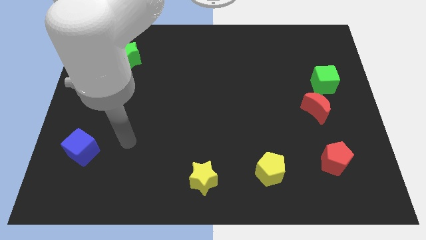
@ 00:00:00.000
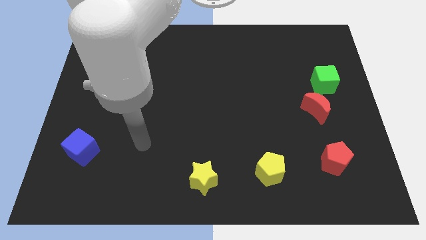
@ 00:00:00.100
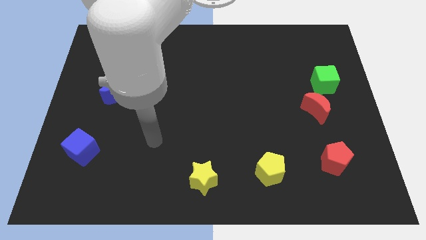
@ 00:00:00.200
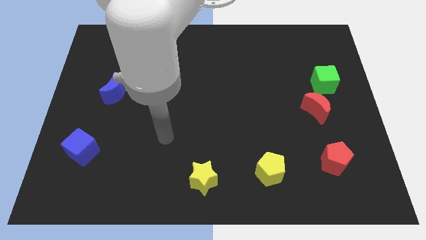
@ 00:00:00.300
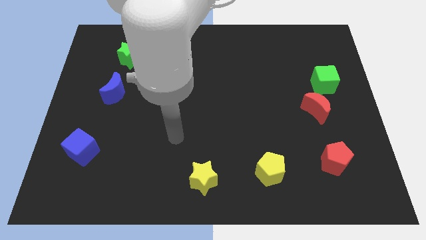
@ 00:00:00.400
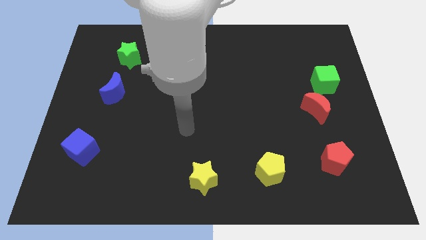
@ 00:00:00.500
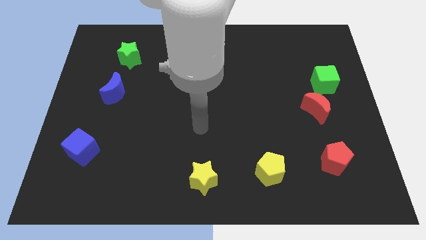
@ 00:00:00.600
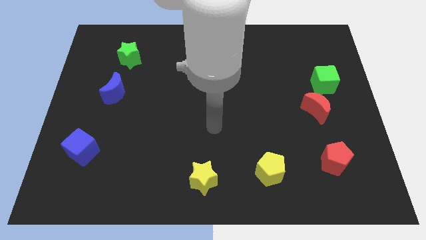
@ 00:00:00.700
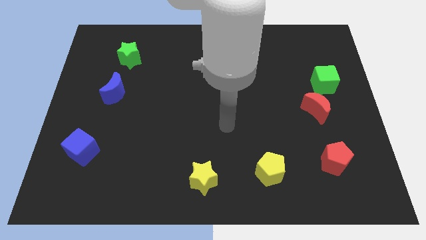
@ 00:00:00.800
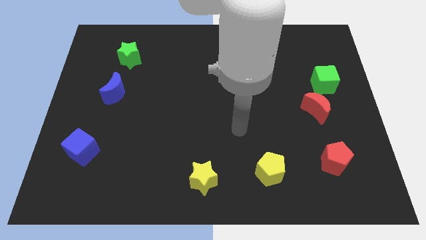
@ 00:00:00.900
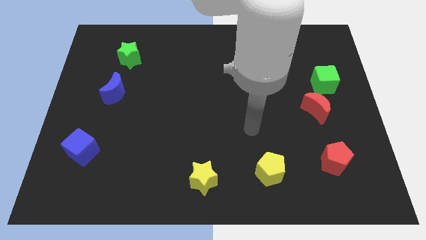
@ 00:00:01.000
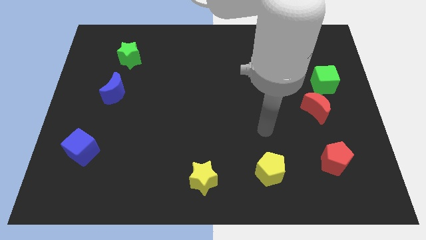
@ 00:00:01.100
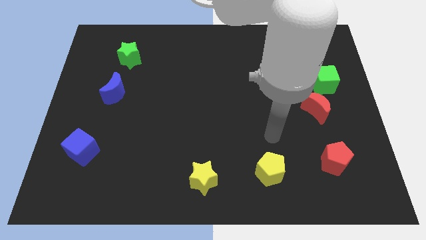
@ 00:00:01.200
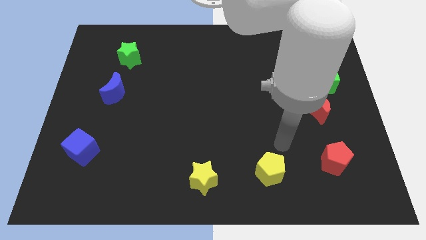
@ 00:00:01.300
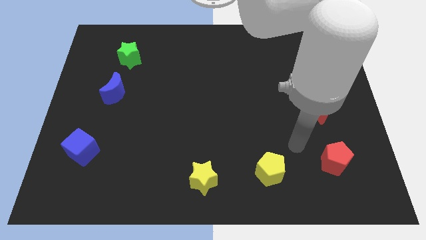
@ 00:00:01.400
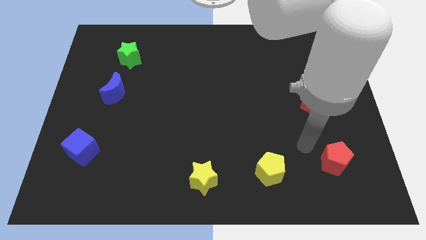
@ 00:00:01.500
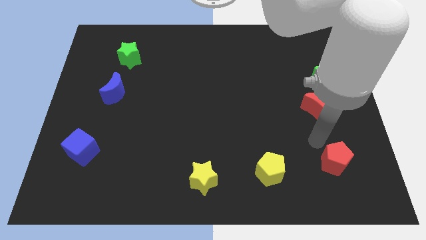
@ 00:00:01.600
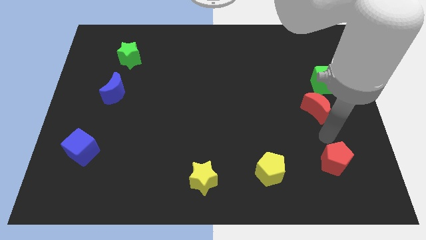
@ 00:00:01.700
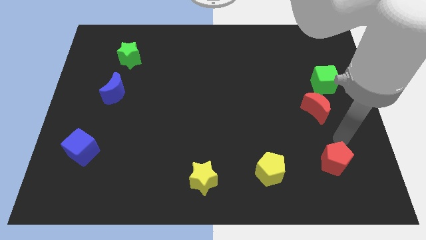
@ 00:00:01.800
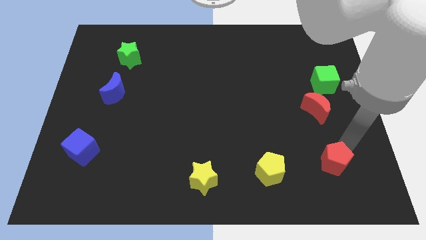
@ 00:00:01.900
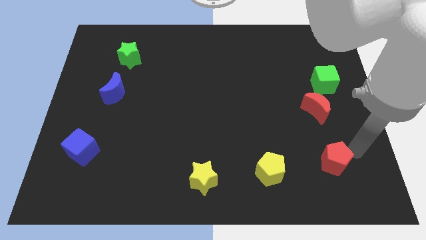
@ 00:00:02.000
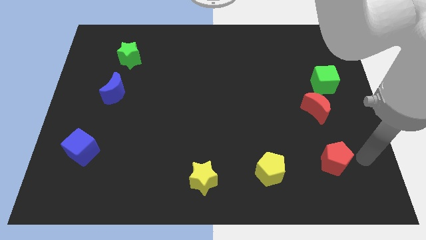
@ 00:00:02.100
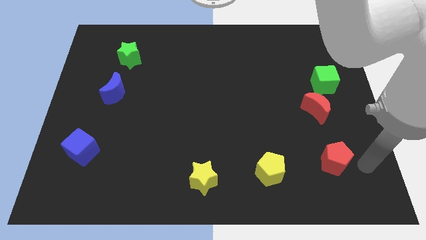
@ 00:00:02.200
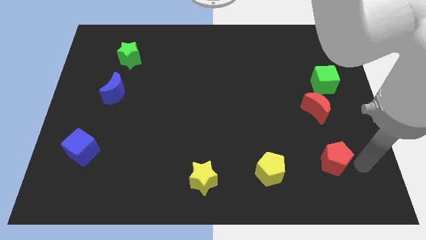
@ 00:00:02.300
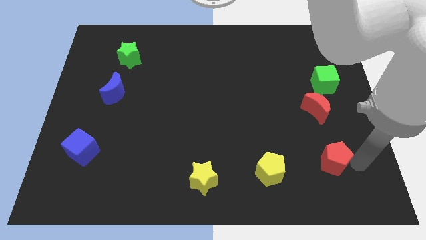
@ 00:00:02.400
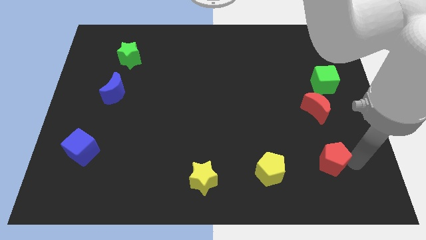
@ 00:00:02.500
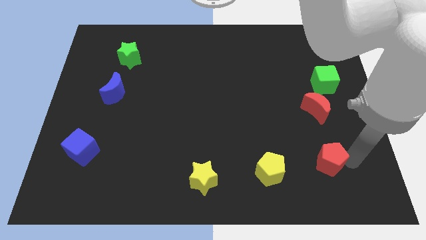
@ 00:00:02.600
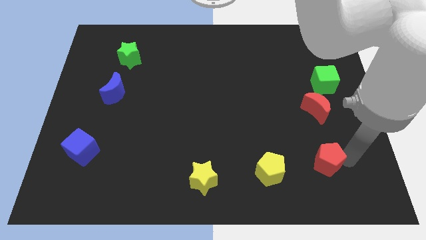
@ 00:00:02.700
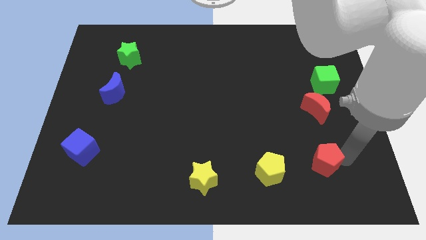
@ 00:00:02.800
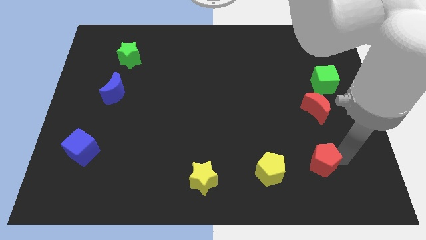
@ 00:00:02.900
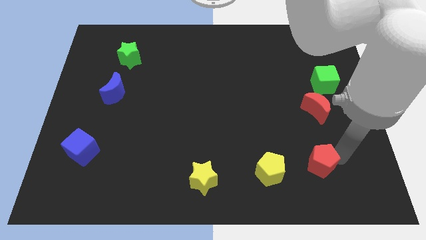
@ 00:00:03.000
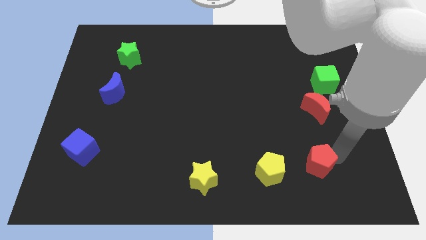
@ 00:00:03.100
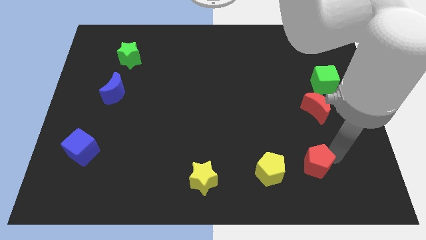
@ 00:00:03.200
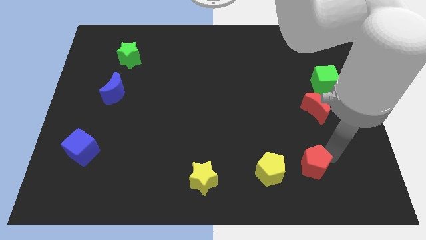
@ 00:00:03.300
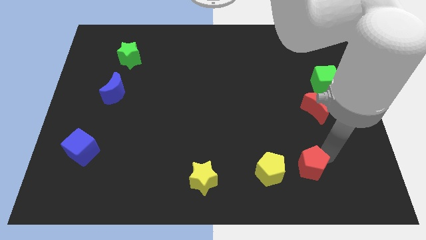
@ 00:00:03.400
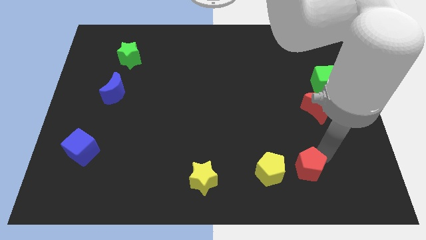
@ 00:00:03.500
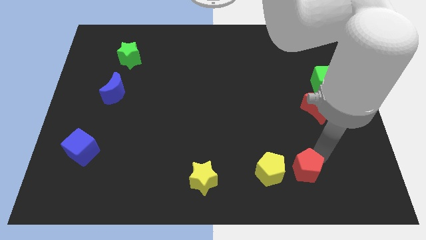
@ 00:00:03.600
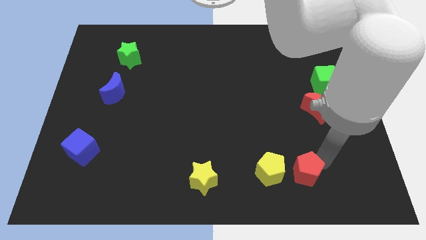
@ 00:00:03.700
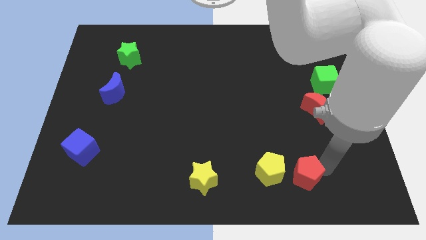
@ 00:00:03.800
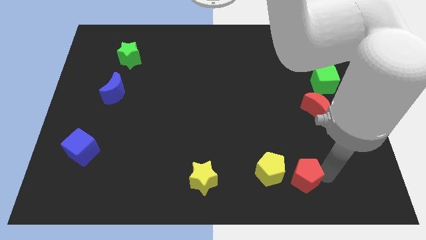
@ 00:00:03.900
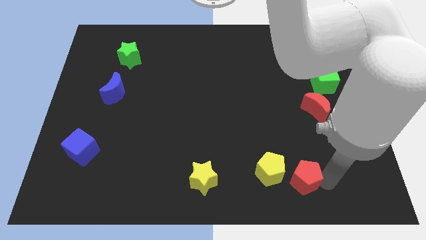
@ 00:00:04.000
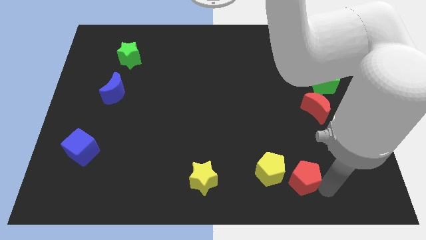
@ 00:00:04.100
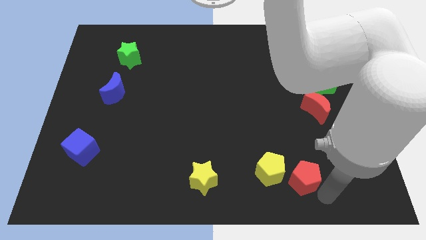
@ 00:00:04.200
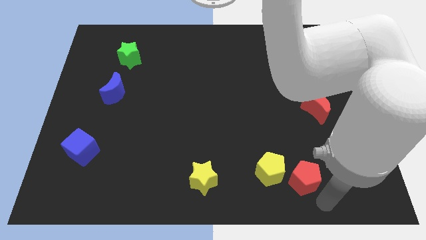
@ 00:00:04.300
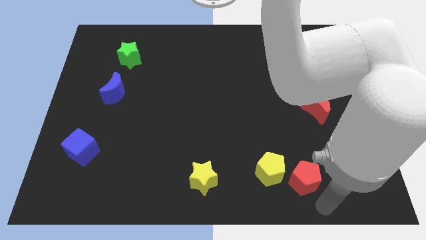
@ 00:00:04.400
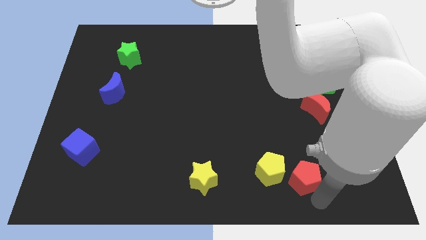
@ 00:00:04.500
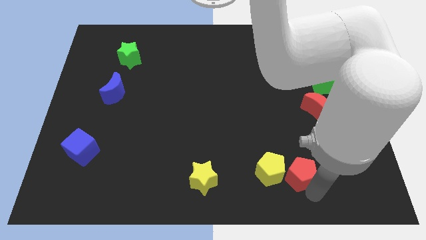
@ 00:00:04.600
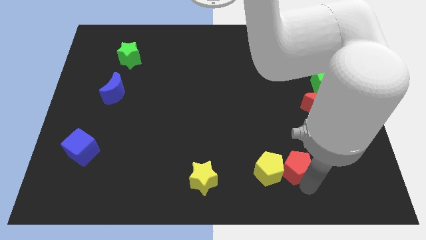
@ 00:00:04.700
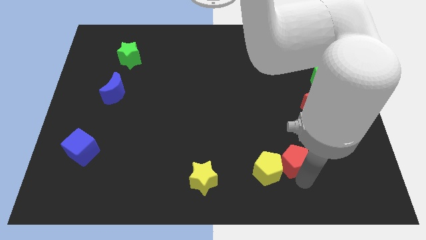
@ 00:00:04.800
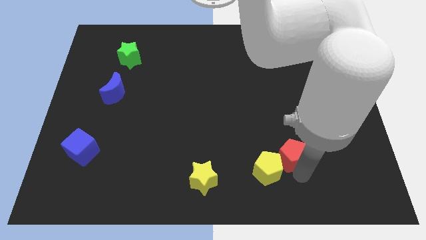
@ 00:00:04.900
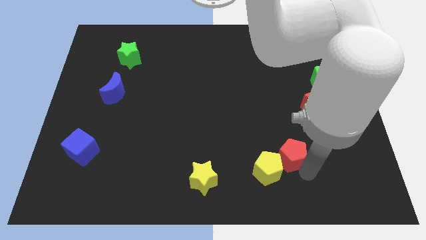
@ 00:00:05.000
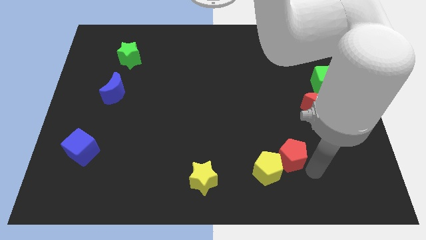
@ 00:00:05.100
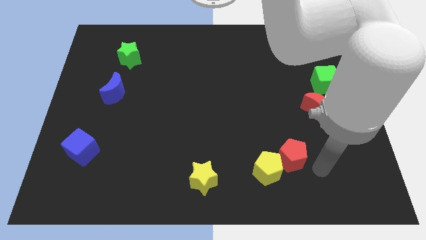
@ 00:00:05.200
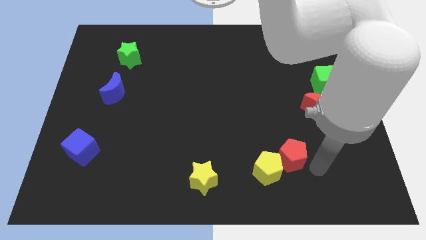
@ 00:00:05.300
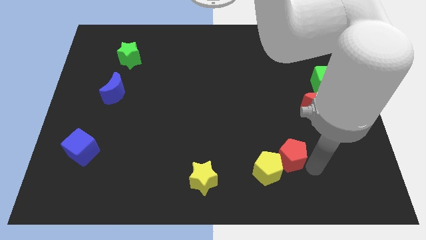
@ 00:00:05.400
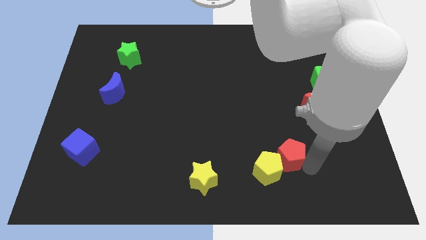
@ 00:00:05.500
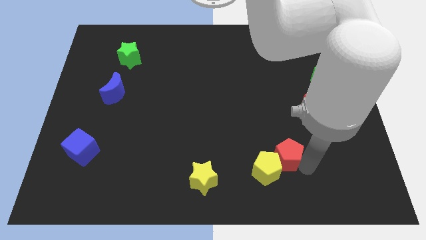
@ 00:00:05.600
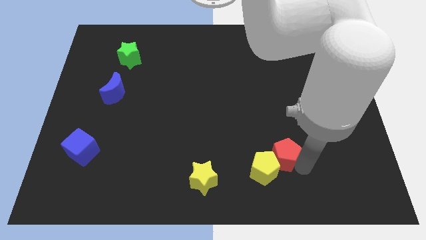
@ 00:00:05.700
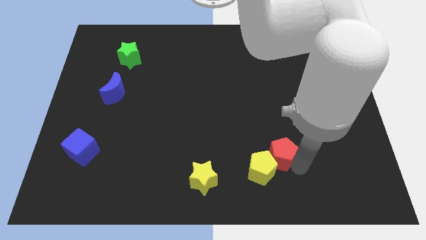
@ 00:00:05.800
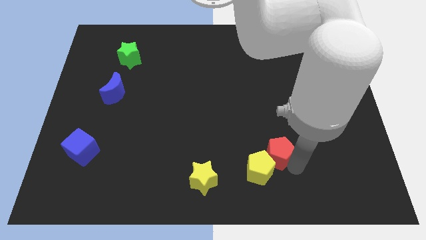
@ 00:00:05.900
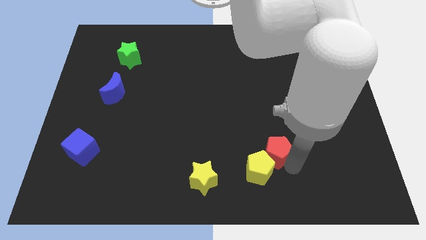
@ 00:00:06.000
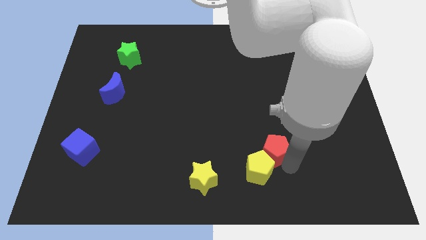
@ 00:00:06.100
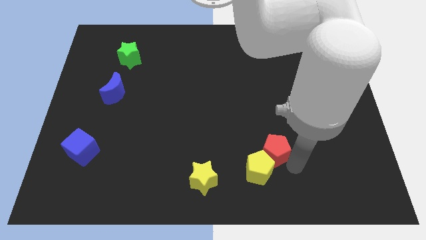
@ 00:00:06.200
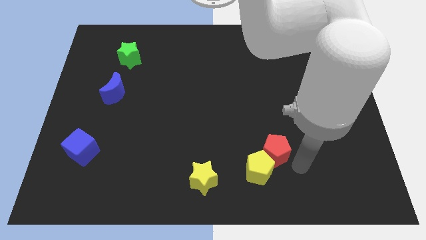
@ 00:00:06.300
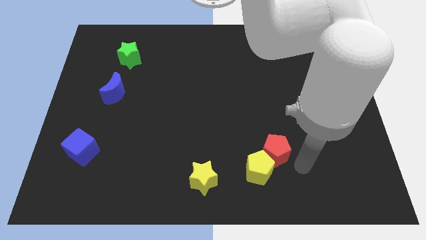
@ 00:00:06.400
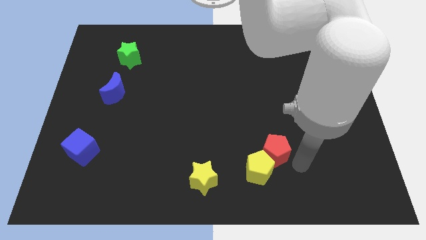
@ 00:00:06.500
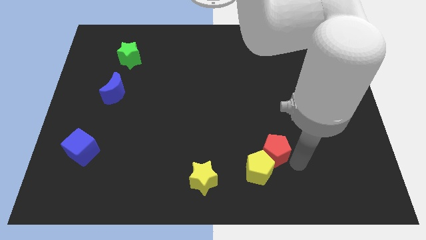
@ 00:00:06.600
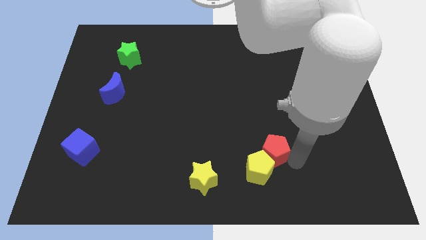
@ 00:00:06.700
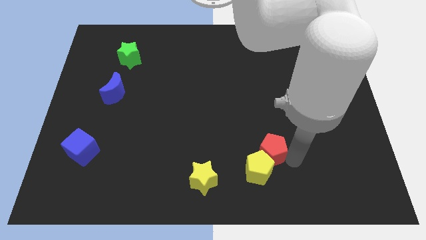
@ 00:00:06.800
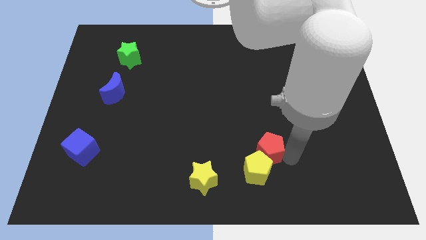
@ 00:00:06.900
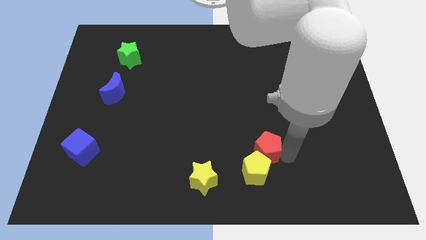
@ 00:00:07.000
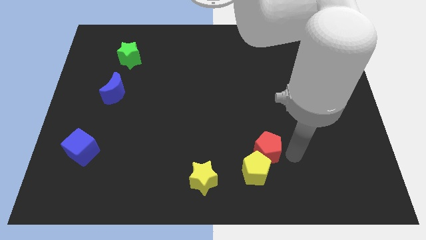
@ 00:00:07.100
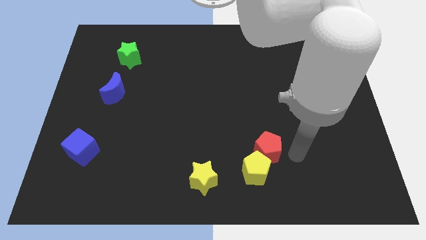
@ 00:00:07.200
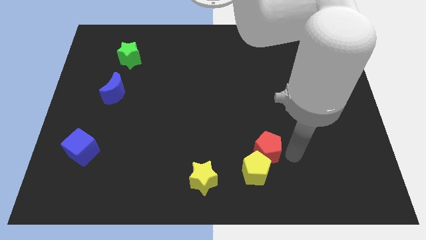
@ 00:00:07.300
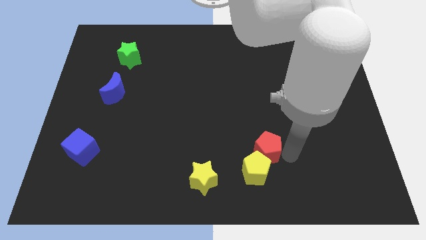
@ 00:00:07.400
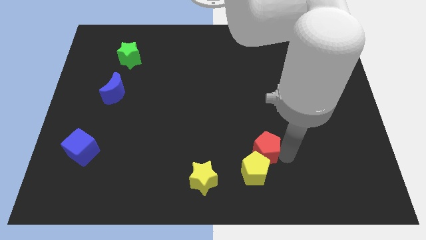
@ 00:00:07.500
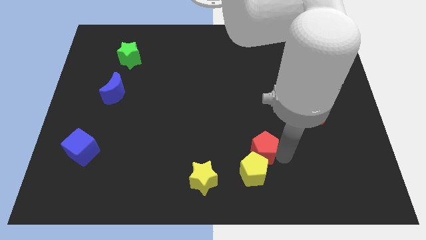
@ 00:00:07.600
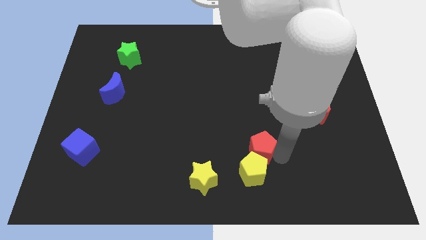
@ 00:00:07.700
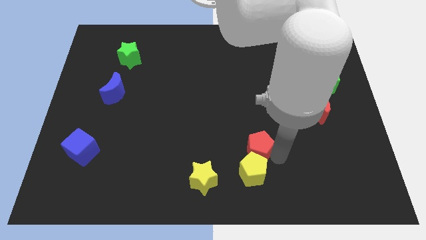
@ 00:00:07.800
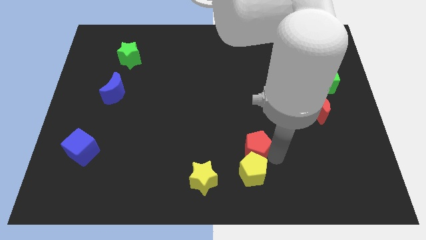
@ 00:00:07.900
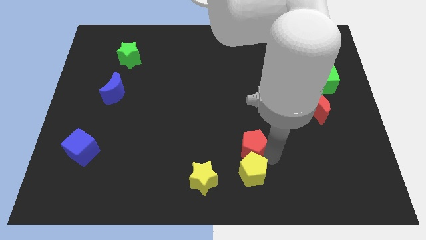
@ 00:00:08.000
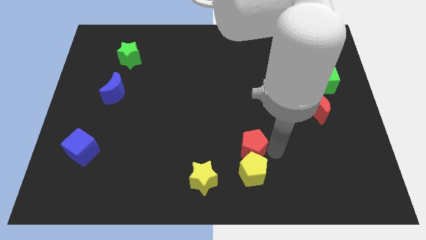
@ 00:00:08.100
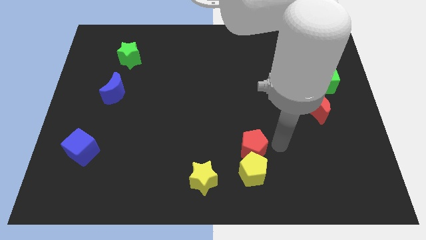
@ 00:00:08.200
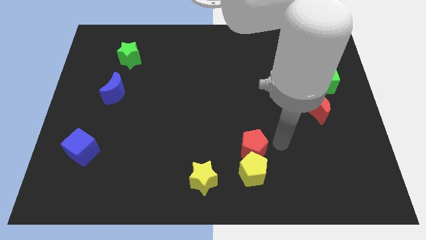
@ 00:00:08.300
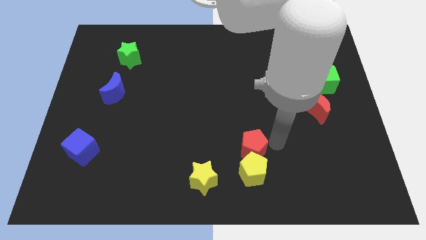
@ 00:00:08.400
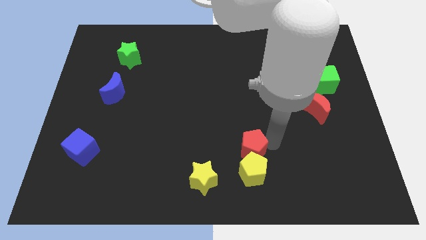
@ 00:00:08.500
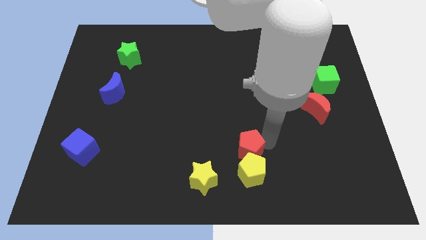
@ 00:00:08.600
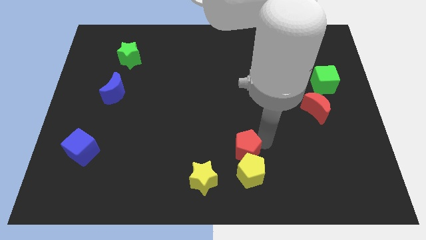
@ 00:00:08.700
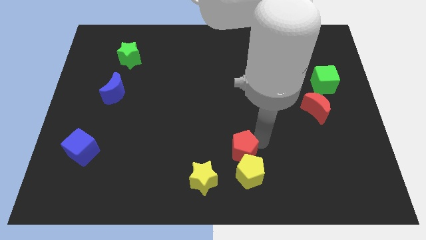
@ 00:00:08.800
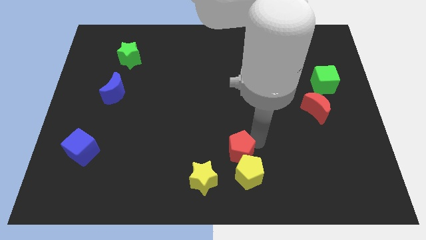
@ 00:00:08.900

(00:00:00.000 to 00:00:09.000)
slide the red pentagon to the left
